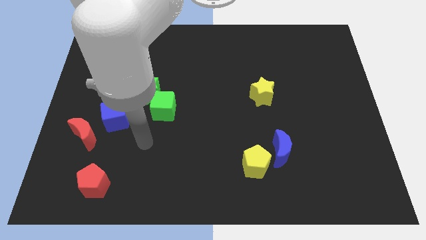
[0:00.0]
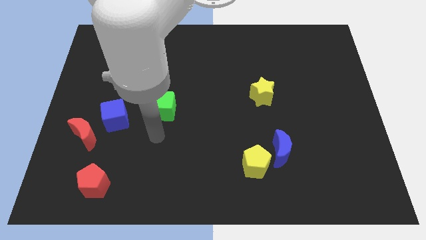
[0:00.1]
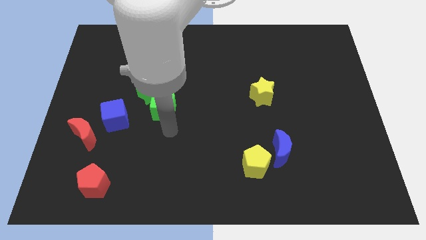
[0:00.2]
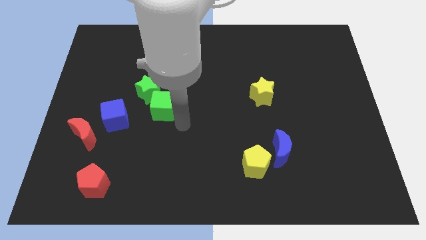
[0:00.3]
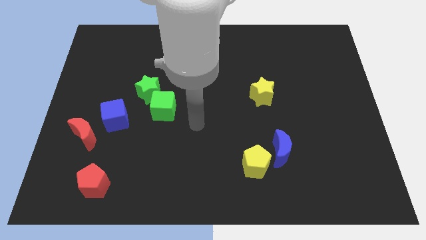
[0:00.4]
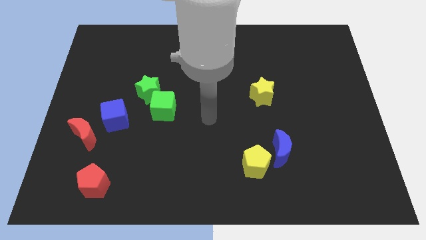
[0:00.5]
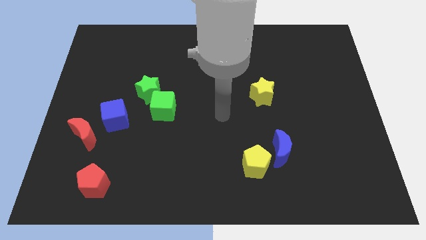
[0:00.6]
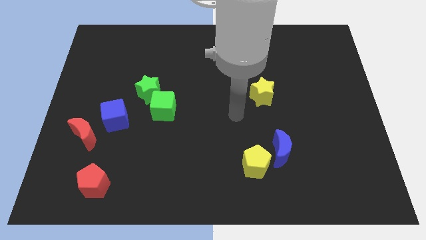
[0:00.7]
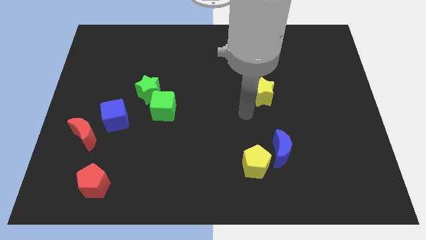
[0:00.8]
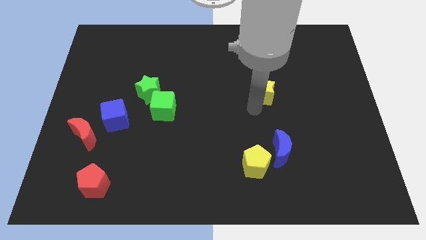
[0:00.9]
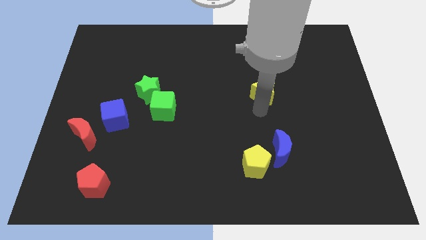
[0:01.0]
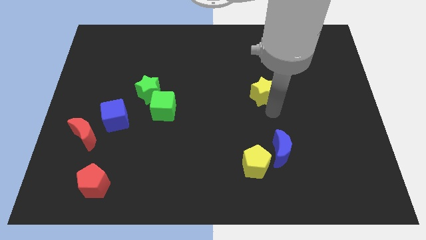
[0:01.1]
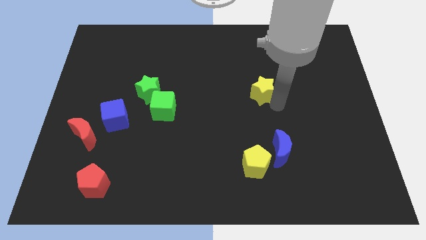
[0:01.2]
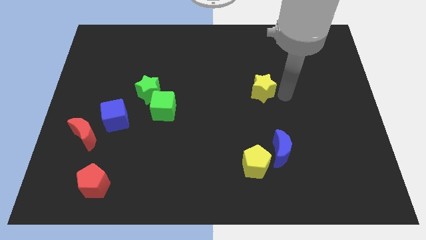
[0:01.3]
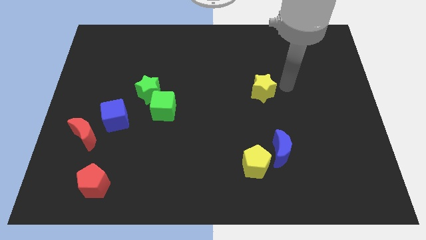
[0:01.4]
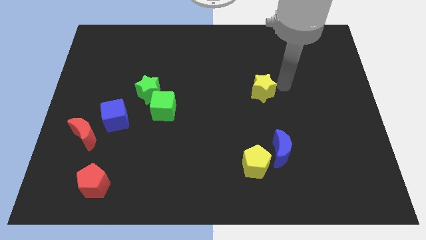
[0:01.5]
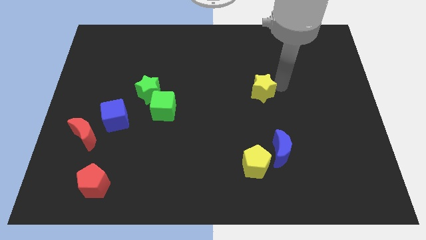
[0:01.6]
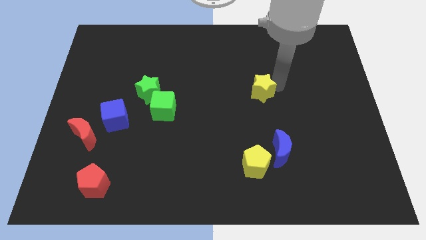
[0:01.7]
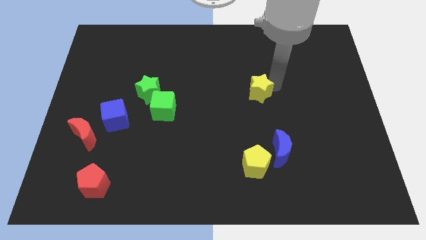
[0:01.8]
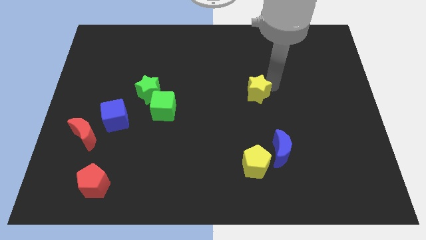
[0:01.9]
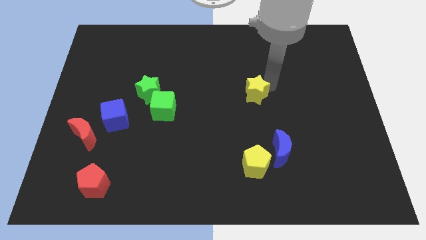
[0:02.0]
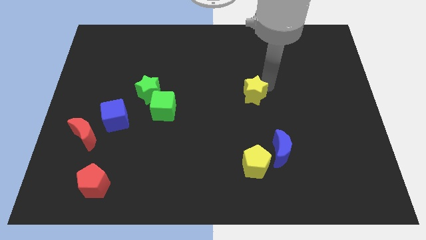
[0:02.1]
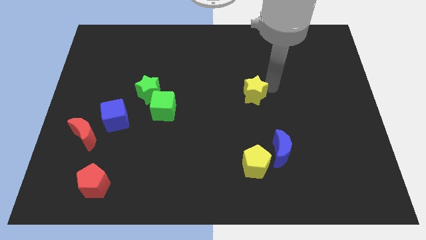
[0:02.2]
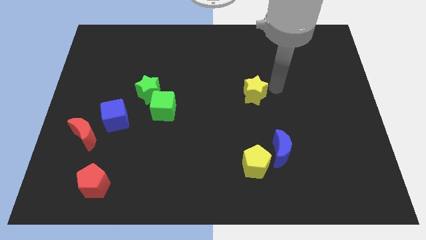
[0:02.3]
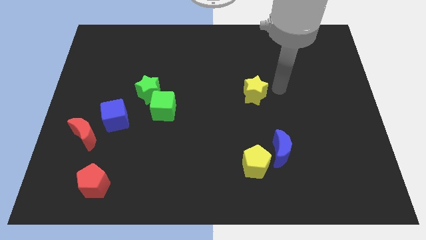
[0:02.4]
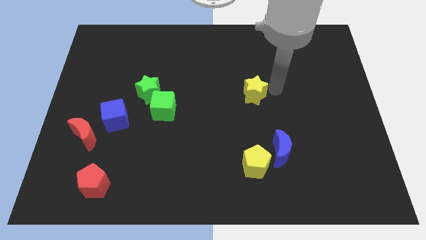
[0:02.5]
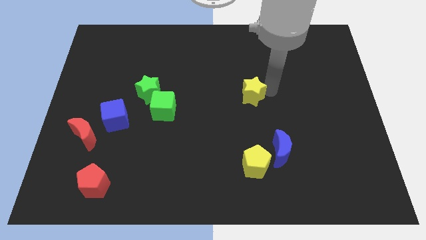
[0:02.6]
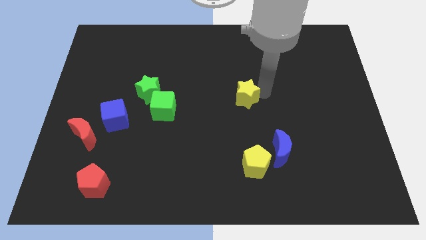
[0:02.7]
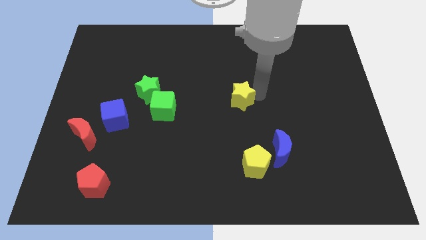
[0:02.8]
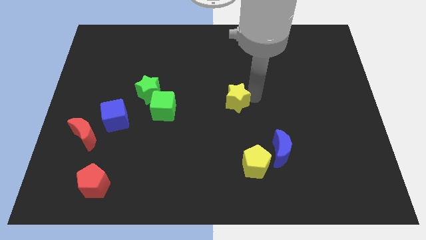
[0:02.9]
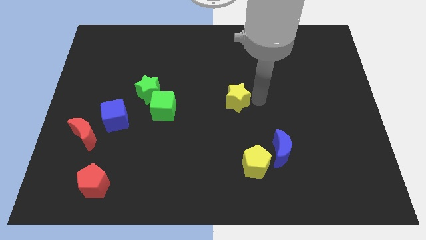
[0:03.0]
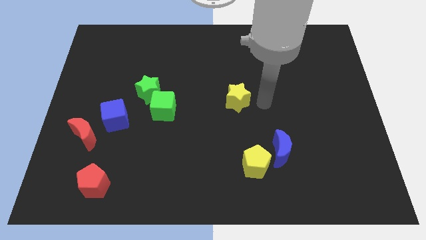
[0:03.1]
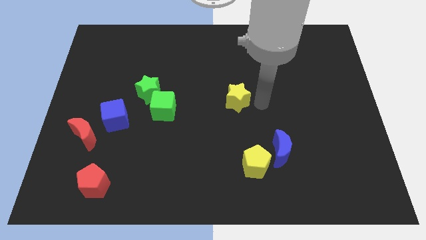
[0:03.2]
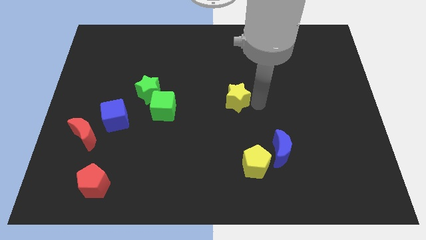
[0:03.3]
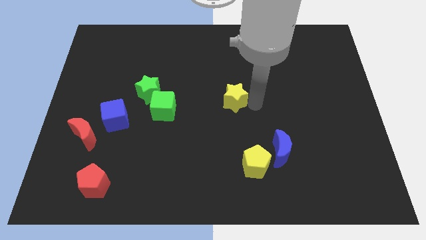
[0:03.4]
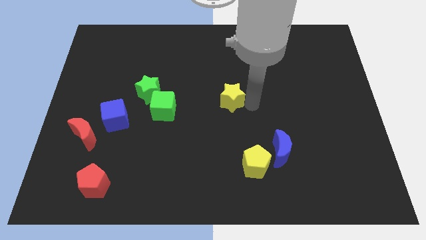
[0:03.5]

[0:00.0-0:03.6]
move the yellow star somewhat left

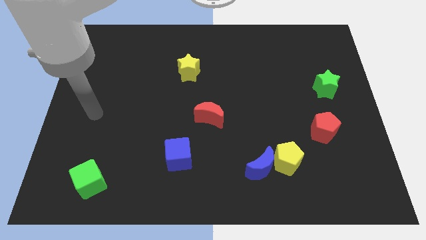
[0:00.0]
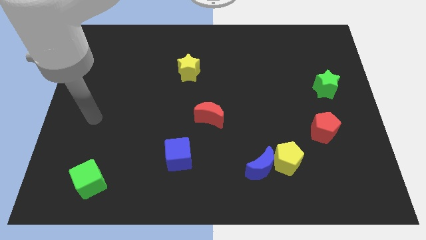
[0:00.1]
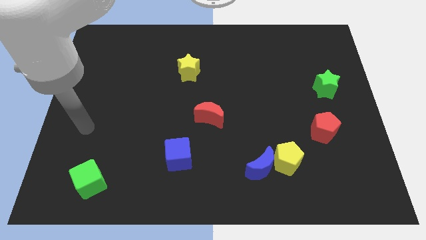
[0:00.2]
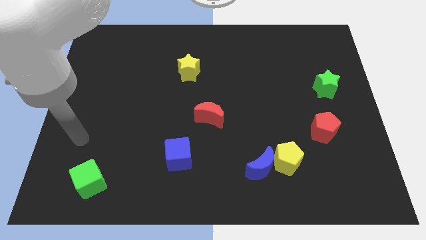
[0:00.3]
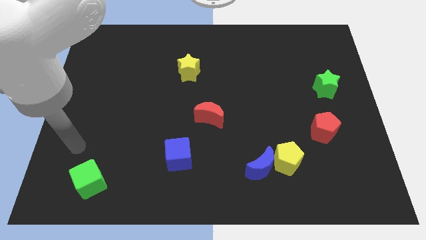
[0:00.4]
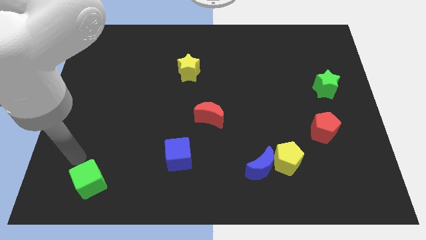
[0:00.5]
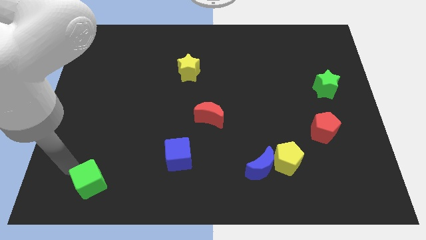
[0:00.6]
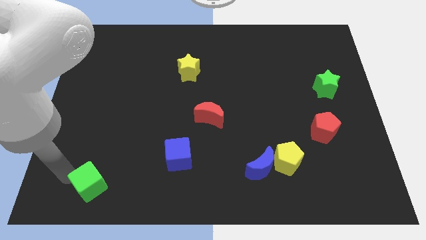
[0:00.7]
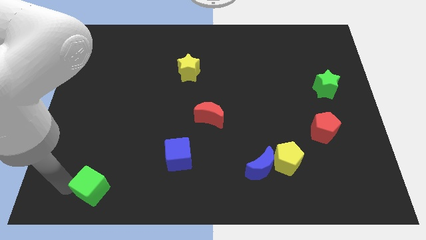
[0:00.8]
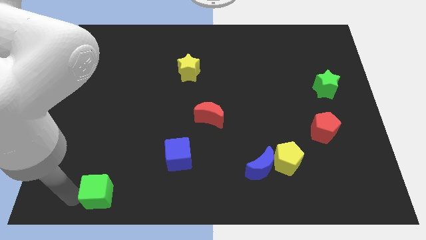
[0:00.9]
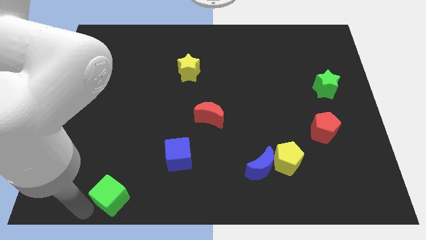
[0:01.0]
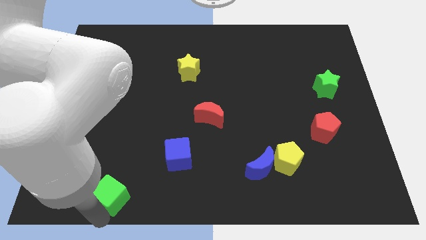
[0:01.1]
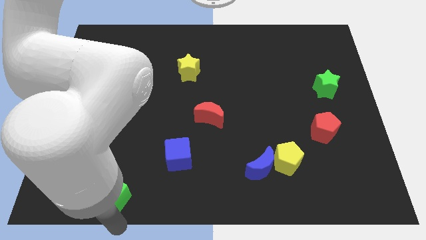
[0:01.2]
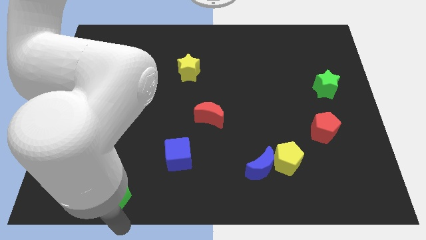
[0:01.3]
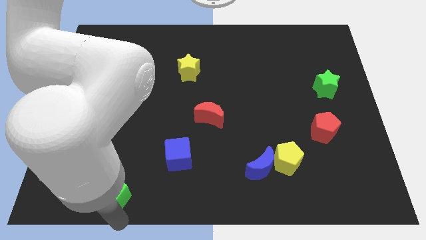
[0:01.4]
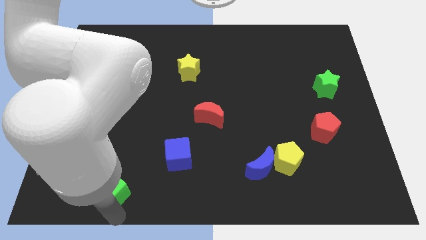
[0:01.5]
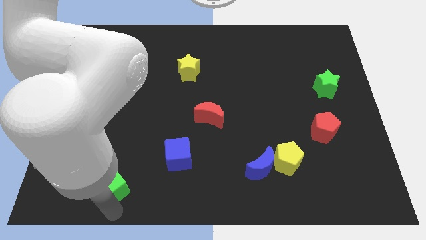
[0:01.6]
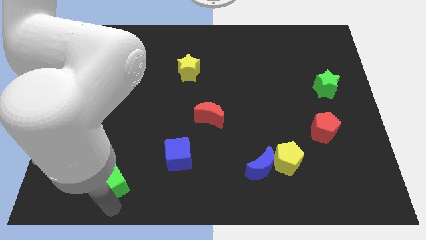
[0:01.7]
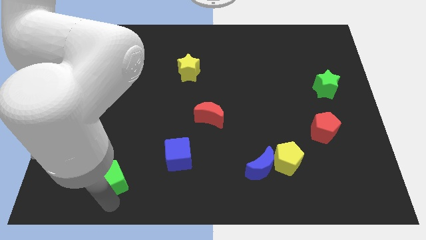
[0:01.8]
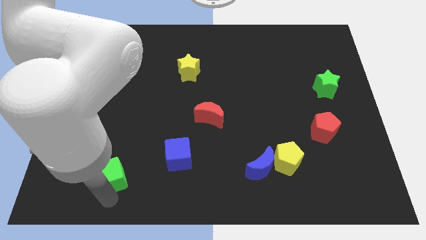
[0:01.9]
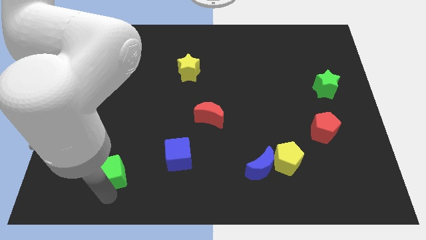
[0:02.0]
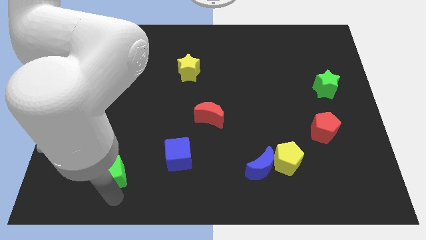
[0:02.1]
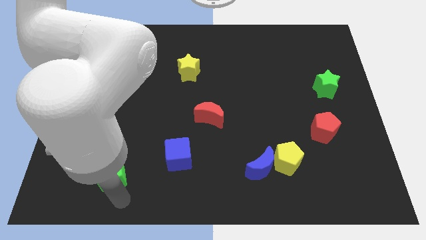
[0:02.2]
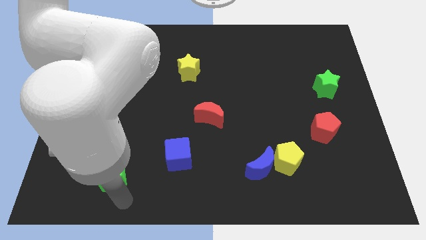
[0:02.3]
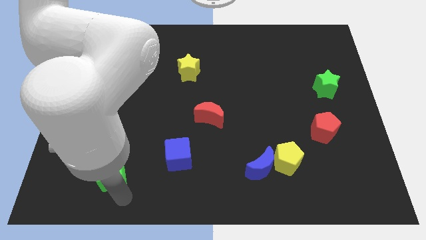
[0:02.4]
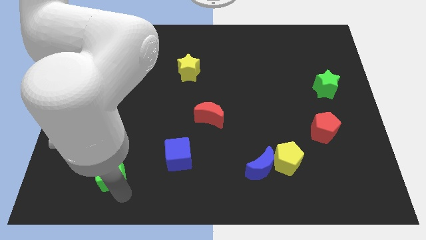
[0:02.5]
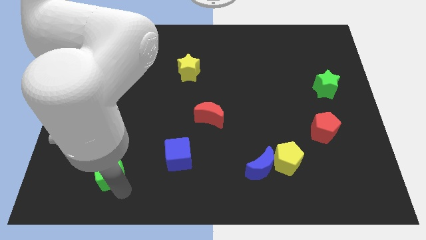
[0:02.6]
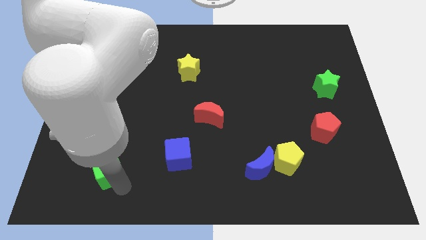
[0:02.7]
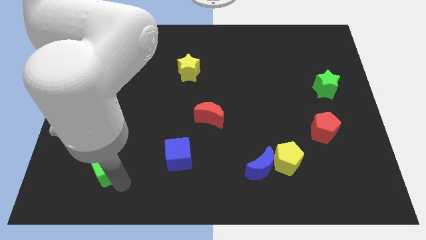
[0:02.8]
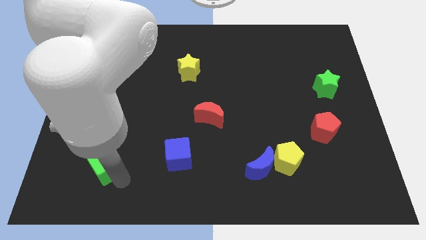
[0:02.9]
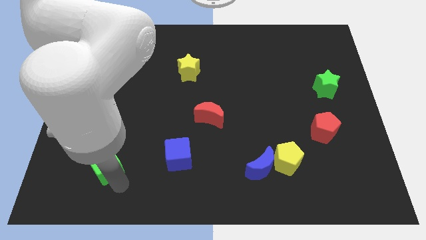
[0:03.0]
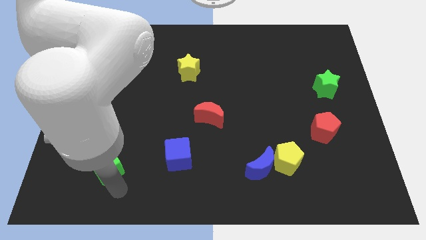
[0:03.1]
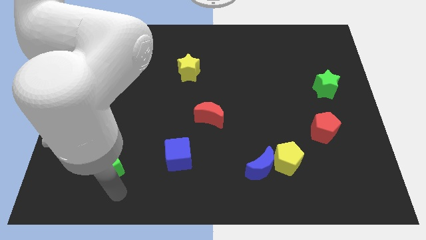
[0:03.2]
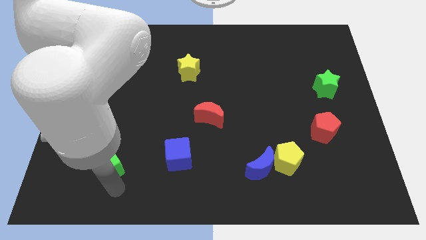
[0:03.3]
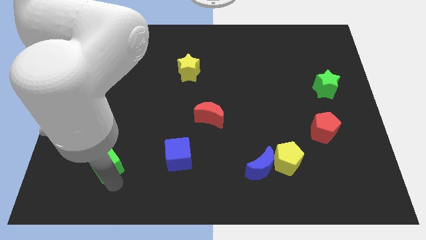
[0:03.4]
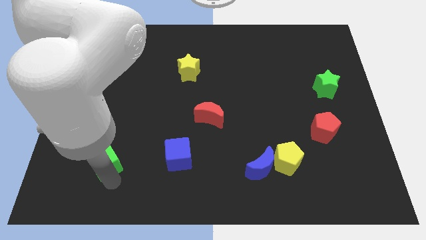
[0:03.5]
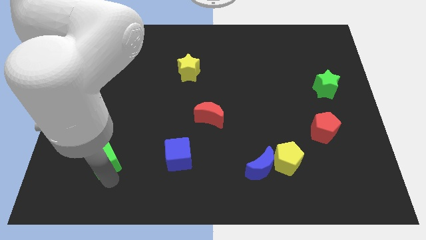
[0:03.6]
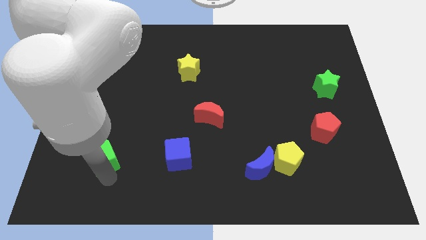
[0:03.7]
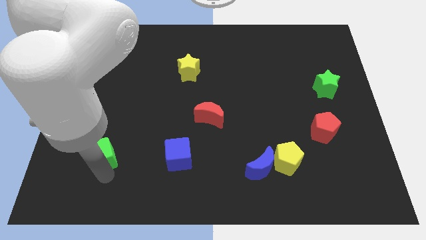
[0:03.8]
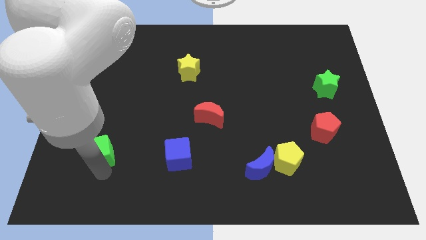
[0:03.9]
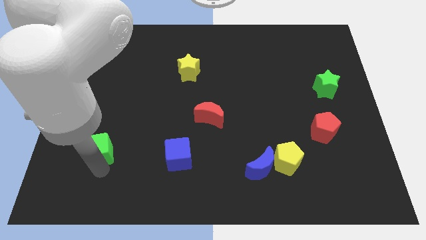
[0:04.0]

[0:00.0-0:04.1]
slide the green cube up a bit
